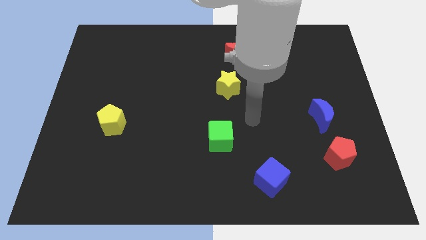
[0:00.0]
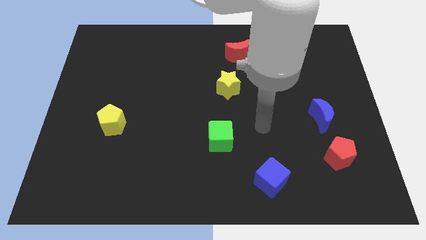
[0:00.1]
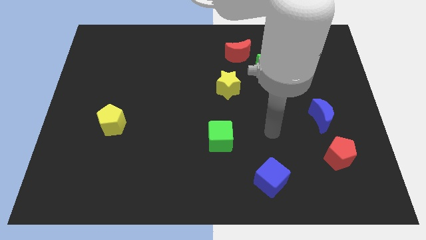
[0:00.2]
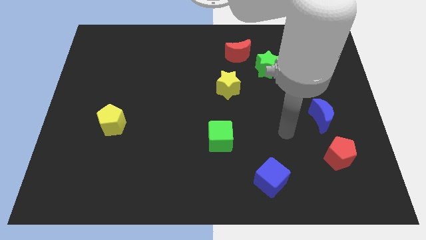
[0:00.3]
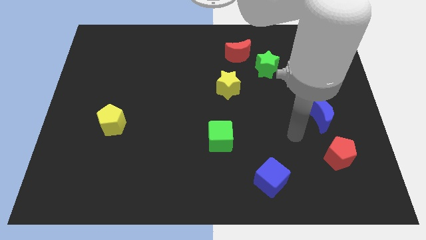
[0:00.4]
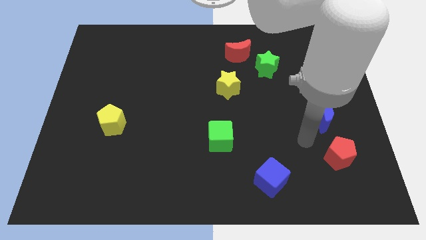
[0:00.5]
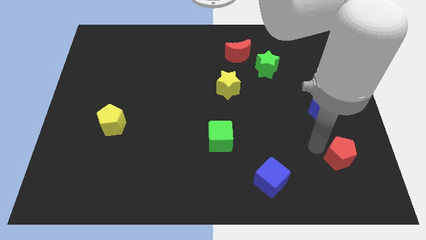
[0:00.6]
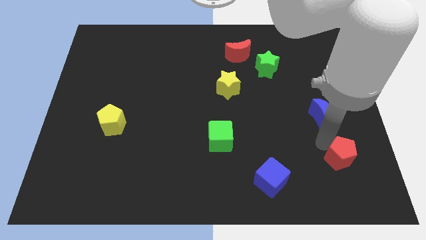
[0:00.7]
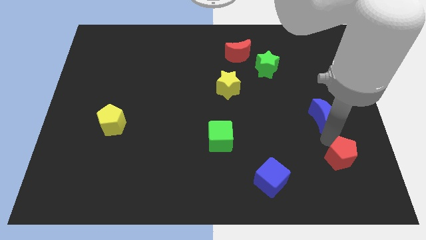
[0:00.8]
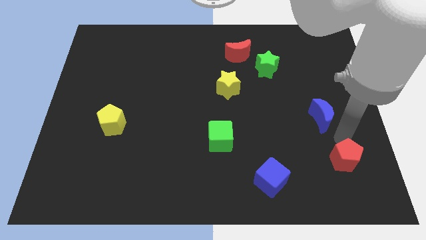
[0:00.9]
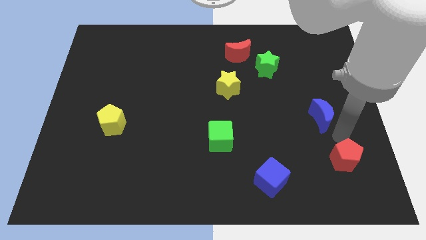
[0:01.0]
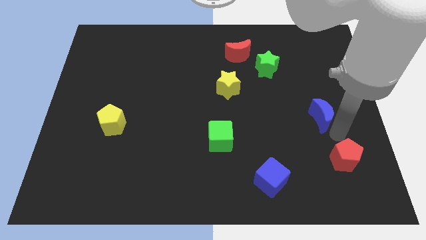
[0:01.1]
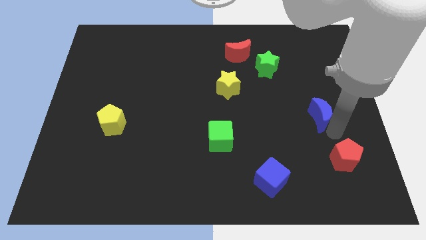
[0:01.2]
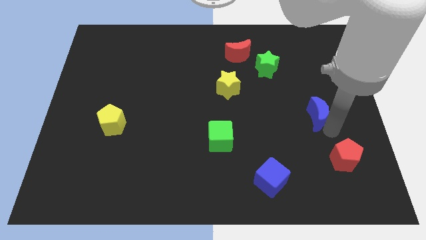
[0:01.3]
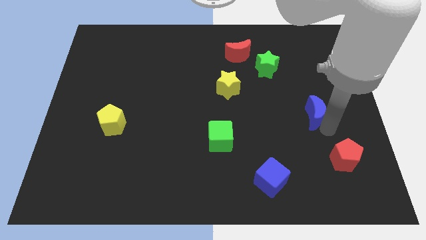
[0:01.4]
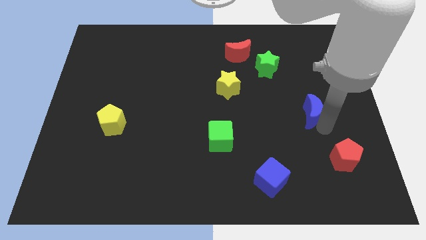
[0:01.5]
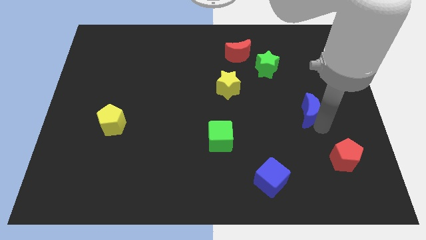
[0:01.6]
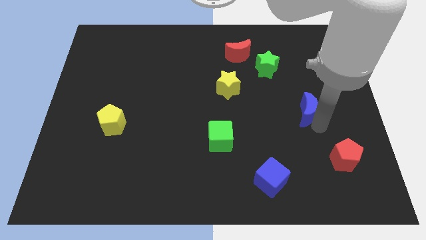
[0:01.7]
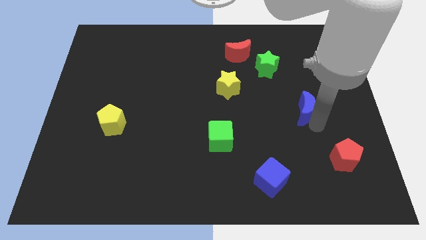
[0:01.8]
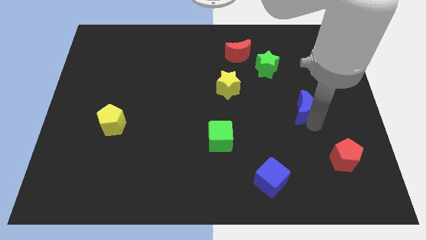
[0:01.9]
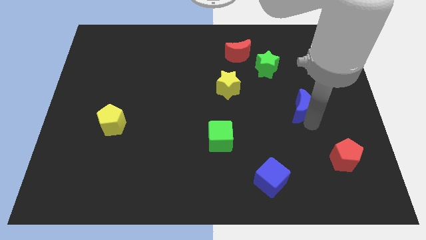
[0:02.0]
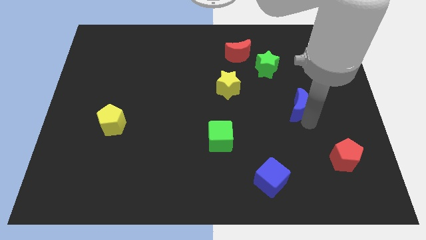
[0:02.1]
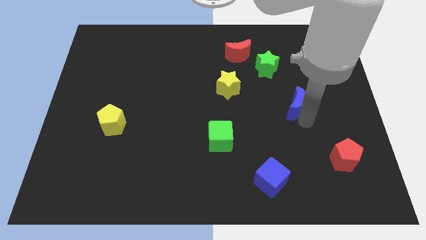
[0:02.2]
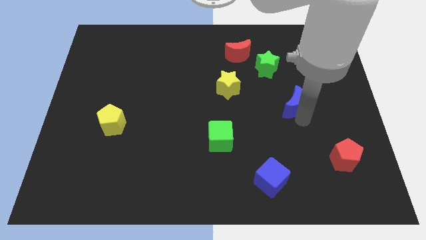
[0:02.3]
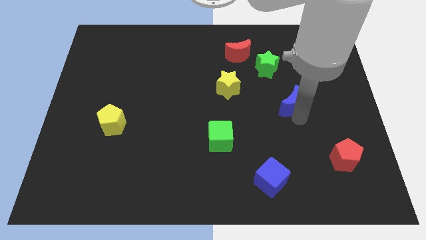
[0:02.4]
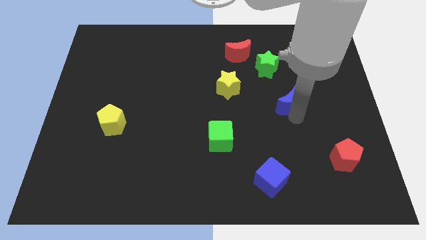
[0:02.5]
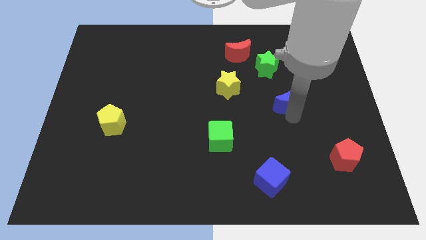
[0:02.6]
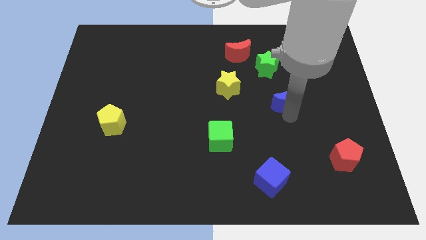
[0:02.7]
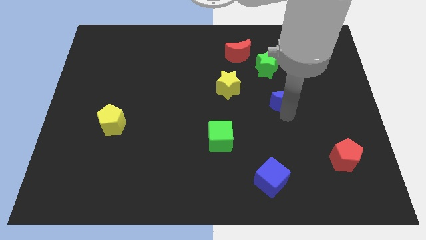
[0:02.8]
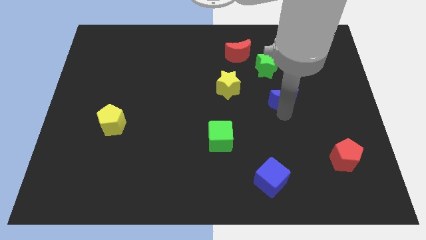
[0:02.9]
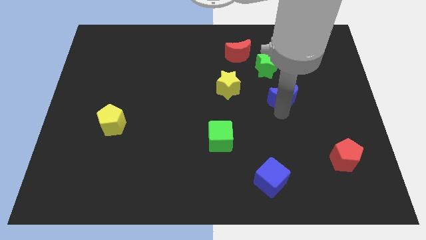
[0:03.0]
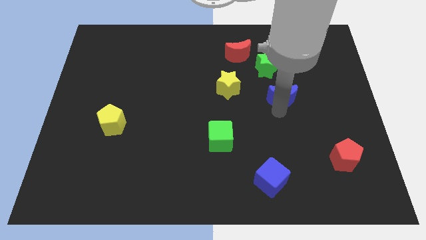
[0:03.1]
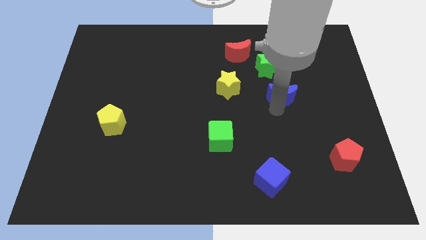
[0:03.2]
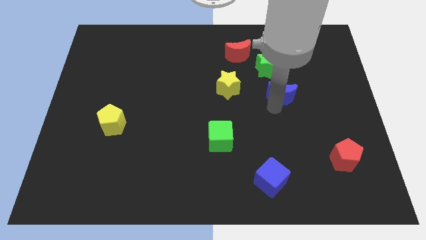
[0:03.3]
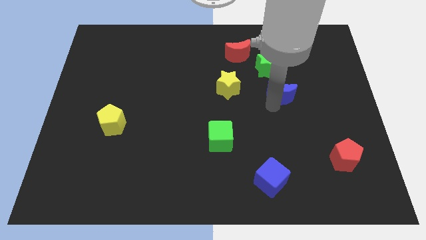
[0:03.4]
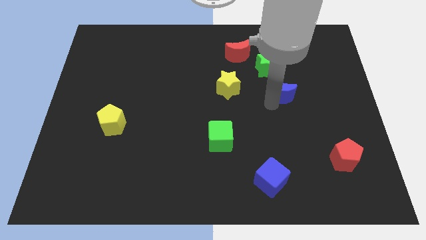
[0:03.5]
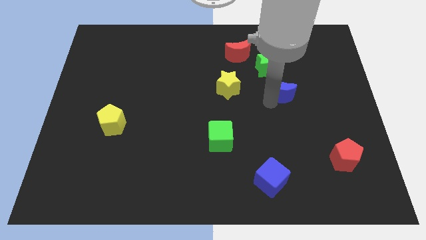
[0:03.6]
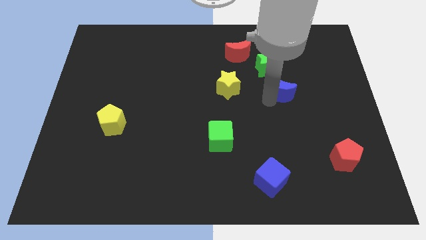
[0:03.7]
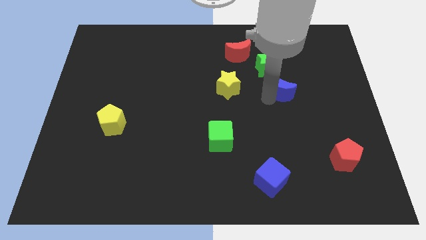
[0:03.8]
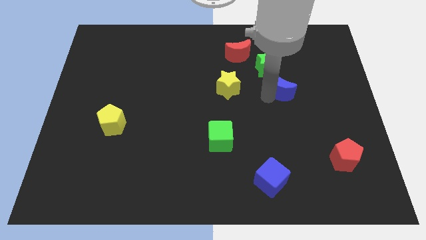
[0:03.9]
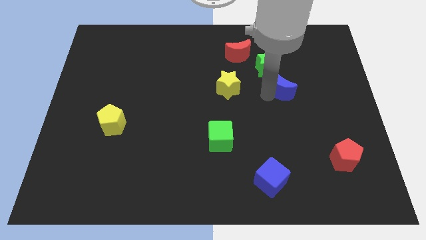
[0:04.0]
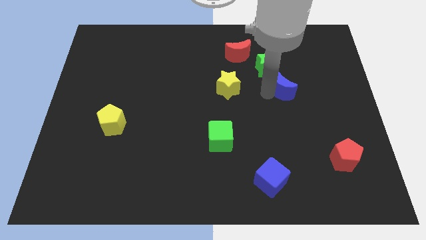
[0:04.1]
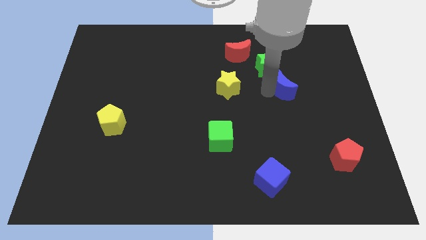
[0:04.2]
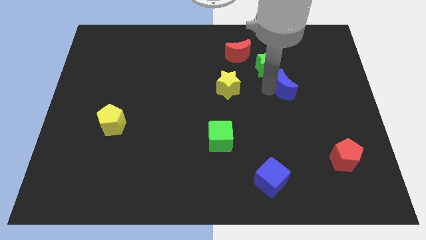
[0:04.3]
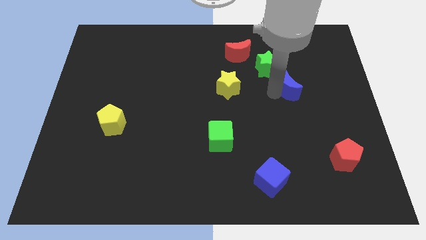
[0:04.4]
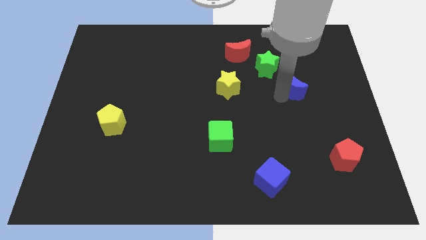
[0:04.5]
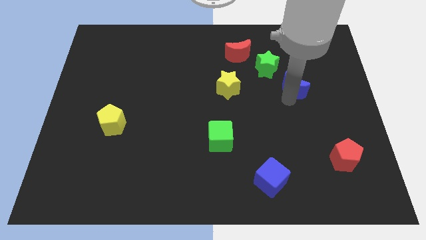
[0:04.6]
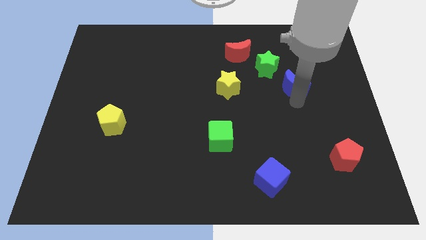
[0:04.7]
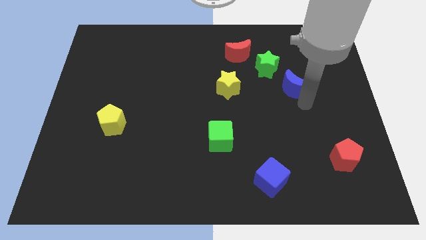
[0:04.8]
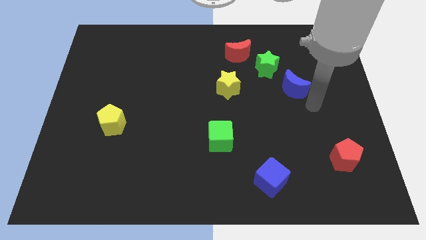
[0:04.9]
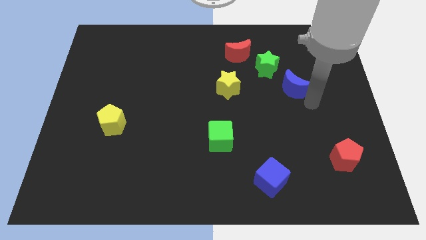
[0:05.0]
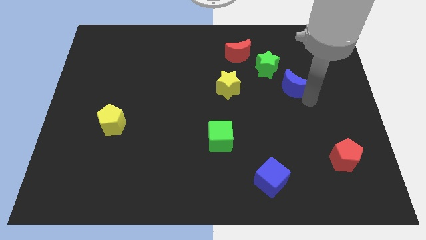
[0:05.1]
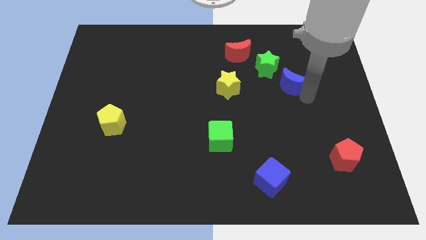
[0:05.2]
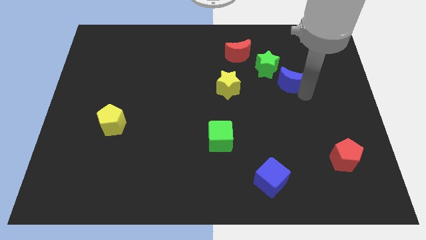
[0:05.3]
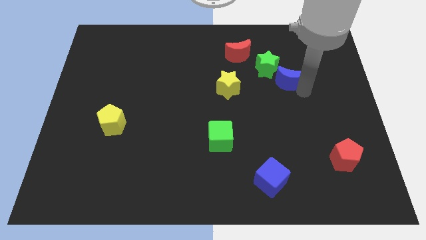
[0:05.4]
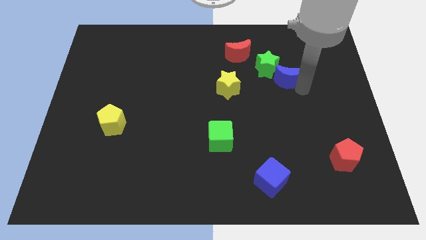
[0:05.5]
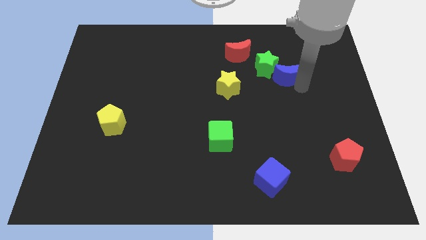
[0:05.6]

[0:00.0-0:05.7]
put the blue moon close to the green star

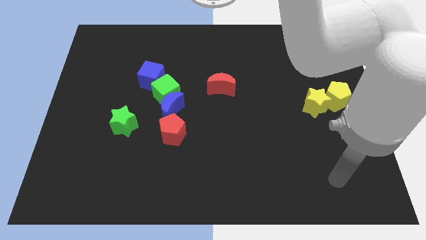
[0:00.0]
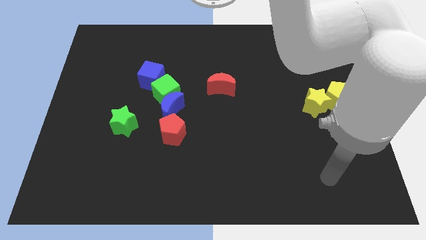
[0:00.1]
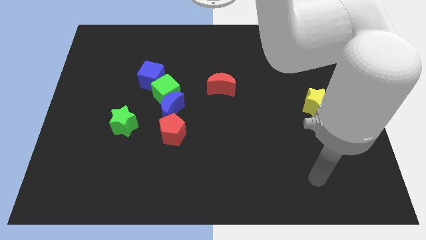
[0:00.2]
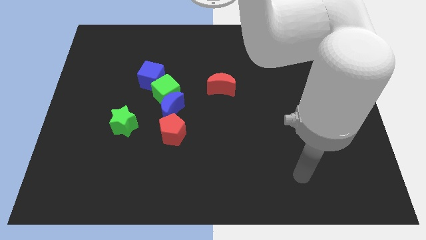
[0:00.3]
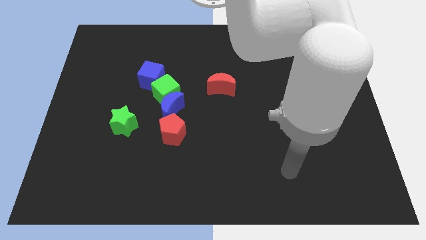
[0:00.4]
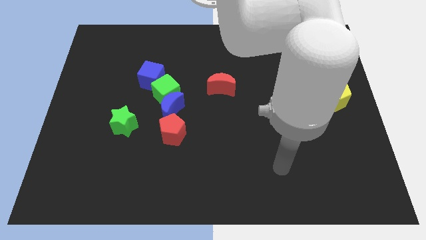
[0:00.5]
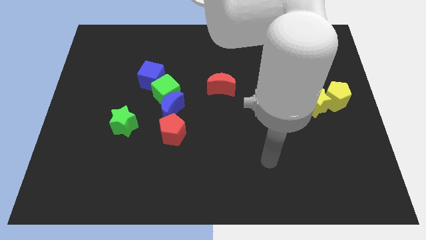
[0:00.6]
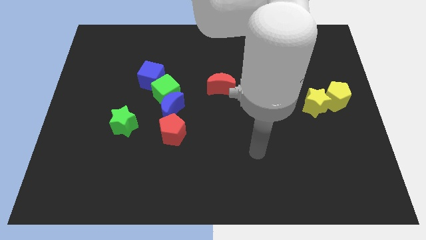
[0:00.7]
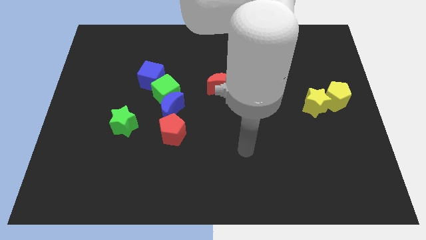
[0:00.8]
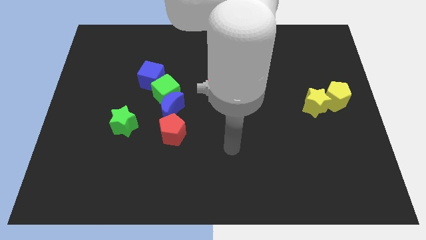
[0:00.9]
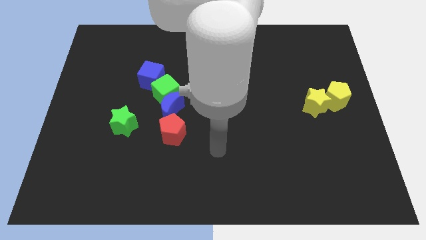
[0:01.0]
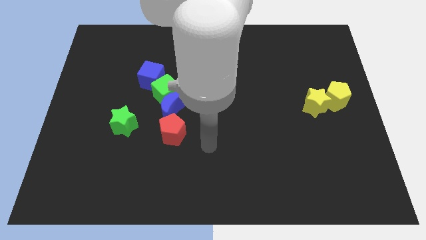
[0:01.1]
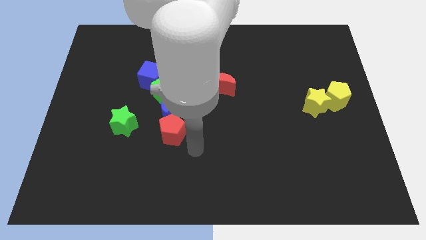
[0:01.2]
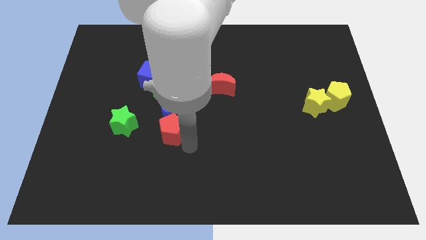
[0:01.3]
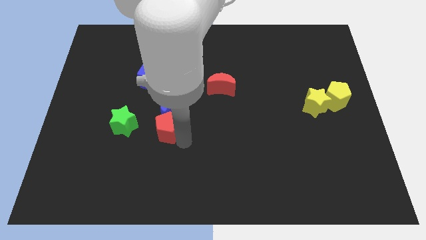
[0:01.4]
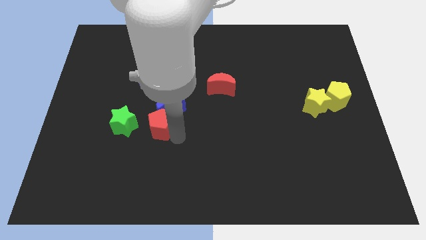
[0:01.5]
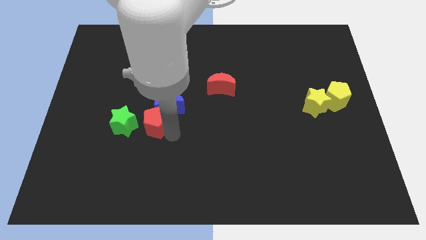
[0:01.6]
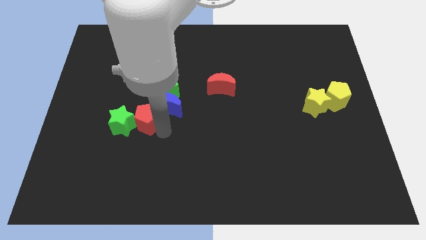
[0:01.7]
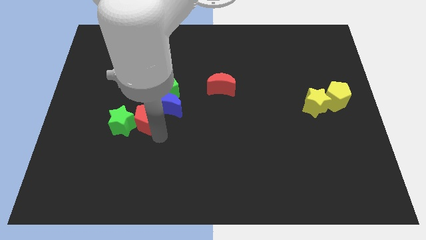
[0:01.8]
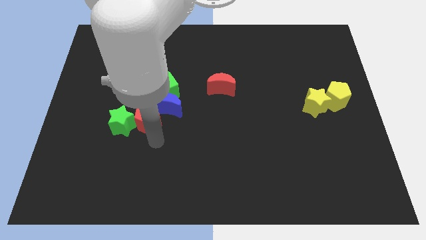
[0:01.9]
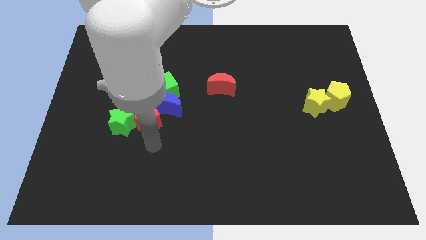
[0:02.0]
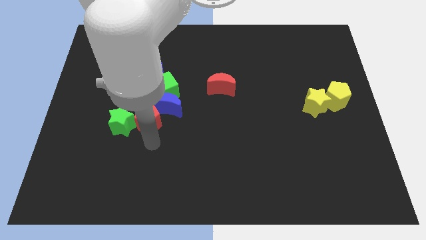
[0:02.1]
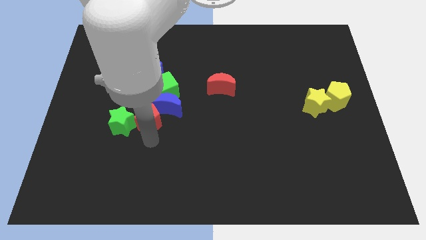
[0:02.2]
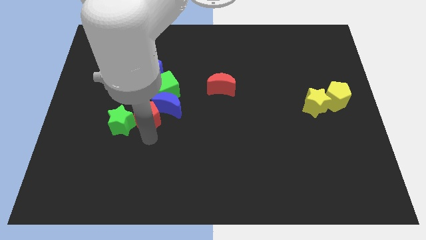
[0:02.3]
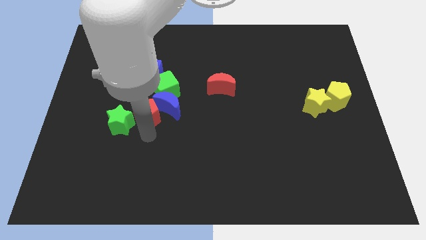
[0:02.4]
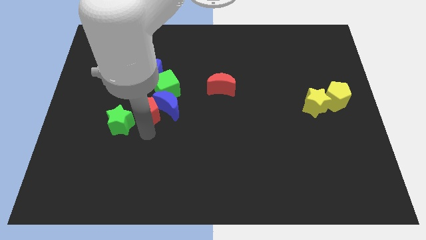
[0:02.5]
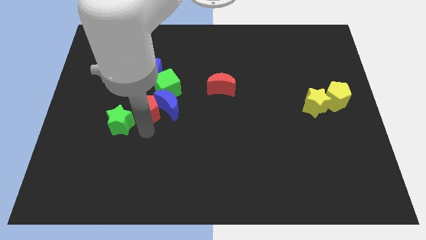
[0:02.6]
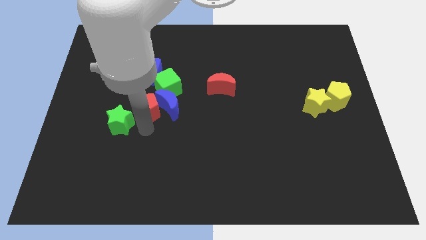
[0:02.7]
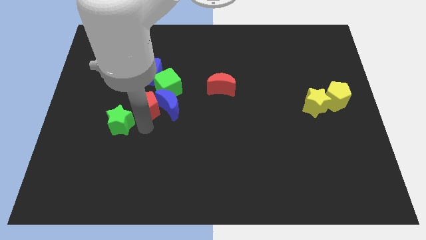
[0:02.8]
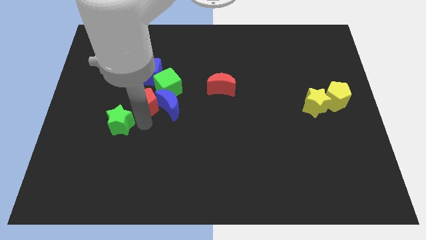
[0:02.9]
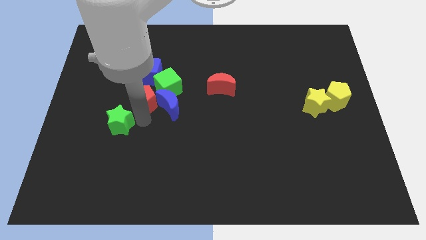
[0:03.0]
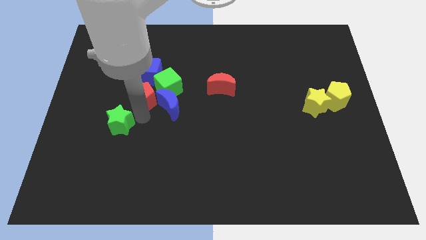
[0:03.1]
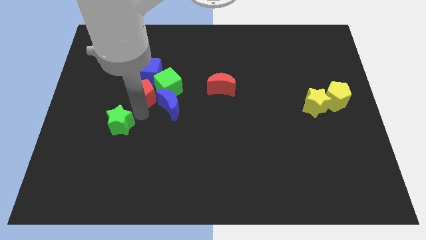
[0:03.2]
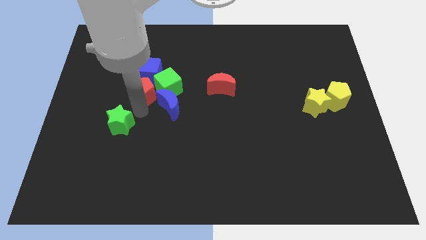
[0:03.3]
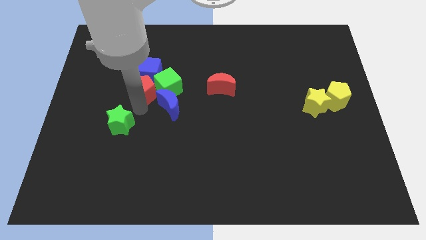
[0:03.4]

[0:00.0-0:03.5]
put the red pentagon towards the blue cube
